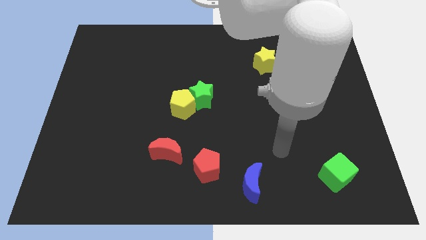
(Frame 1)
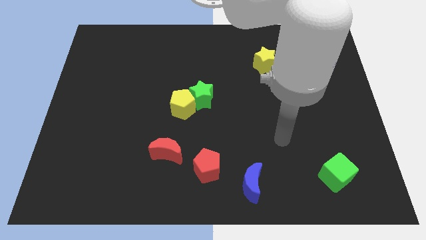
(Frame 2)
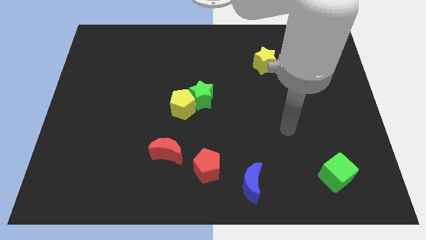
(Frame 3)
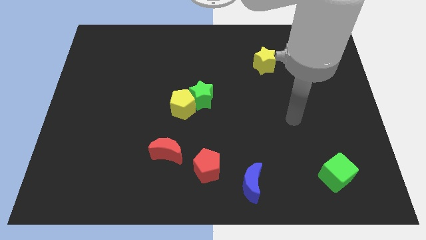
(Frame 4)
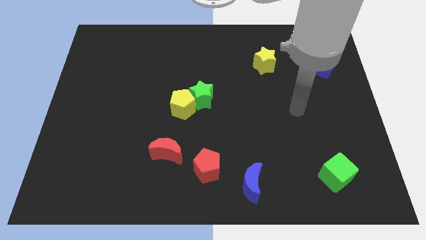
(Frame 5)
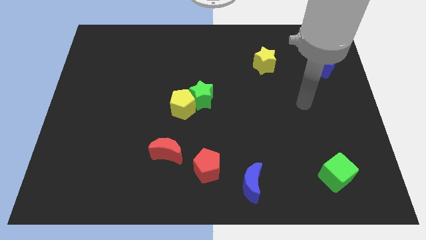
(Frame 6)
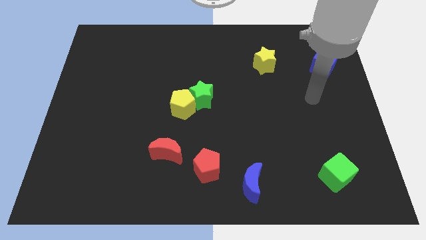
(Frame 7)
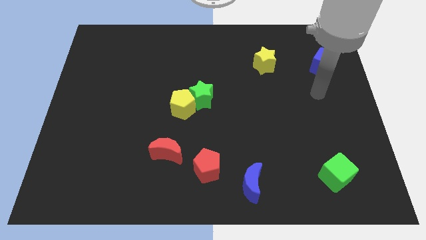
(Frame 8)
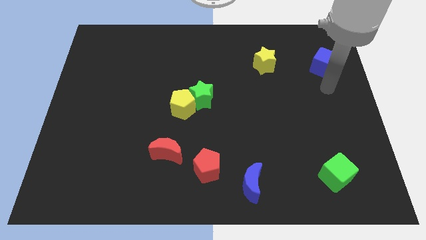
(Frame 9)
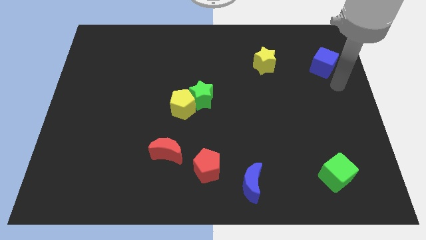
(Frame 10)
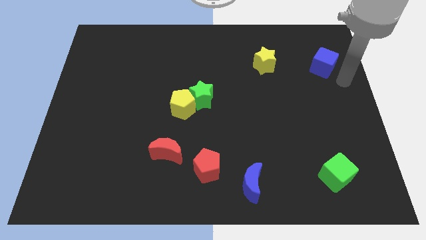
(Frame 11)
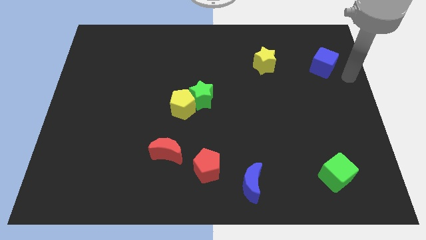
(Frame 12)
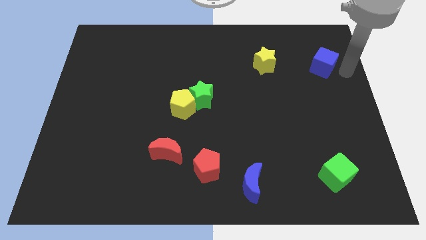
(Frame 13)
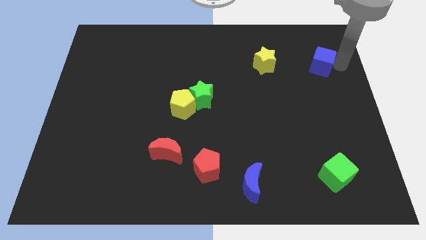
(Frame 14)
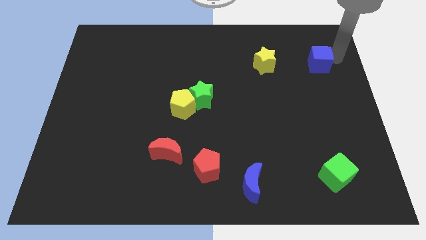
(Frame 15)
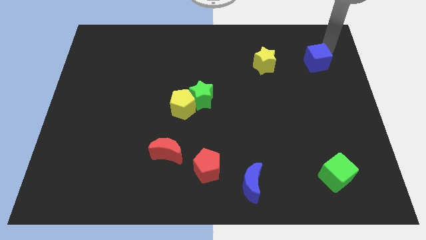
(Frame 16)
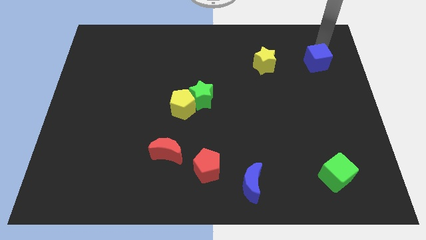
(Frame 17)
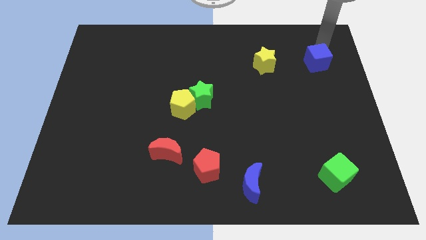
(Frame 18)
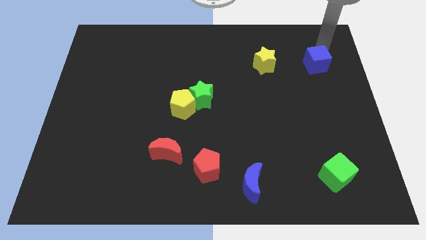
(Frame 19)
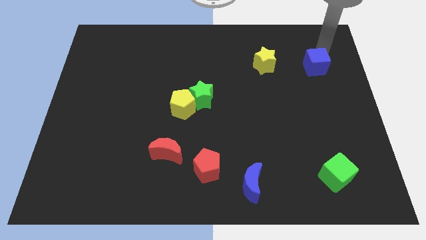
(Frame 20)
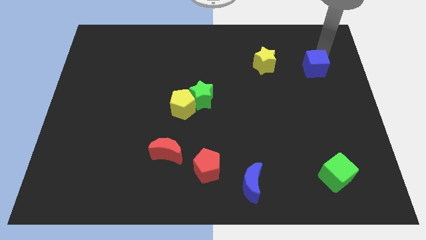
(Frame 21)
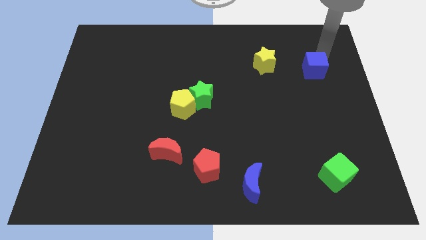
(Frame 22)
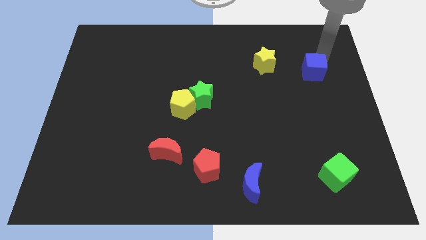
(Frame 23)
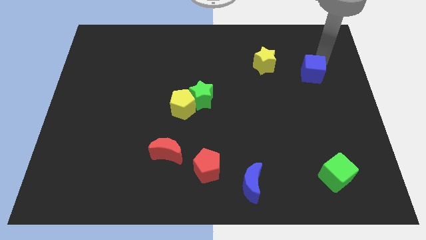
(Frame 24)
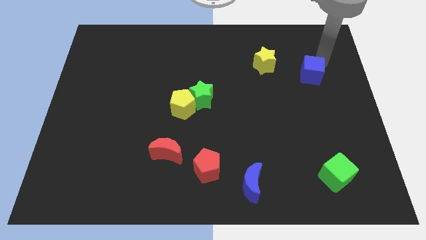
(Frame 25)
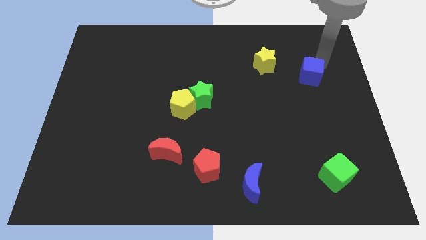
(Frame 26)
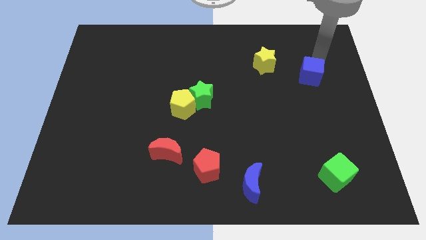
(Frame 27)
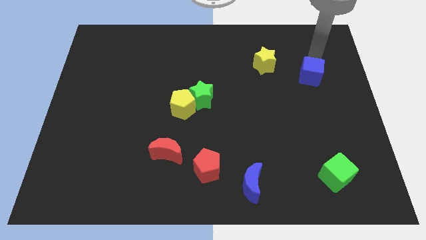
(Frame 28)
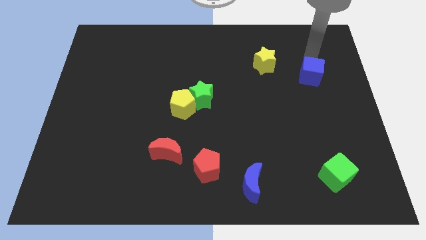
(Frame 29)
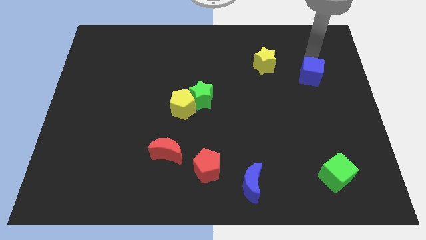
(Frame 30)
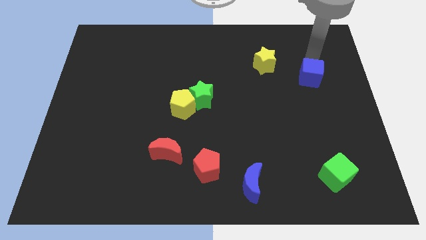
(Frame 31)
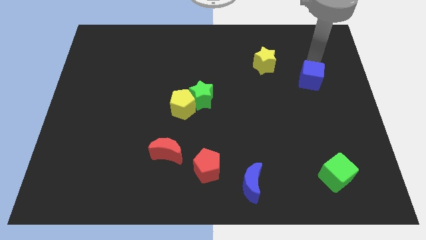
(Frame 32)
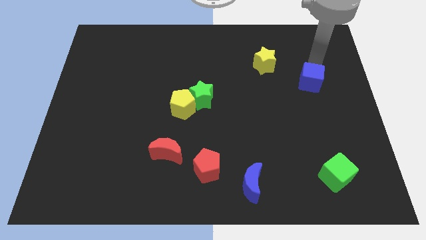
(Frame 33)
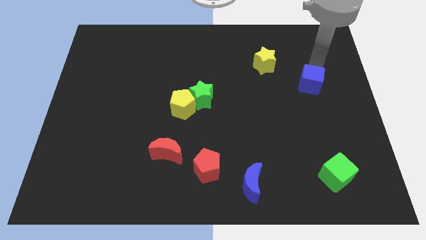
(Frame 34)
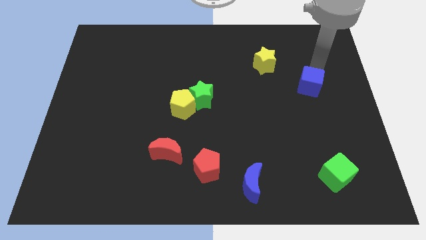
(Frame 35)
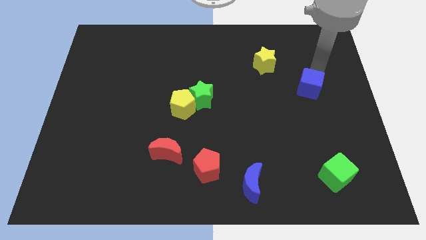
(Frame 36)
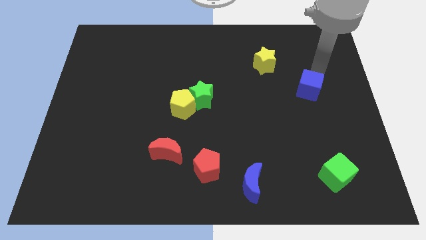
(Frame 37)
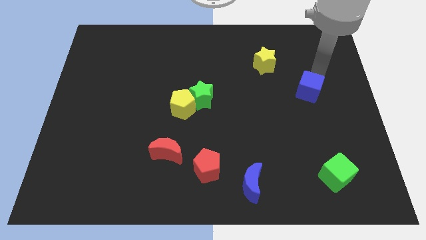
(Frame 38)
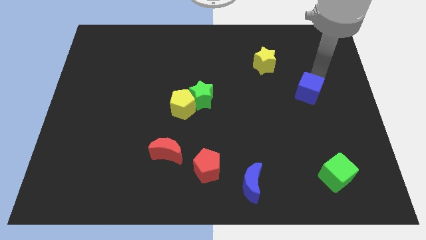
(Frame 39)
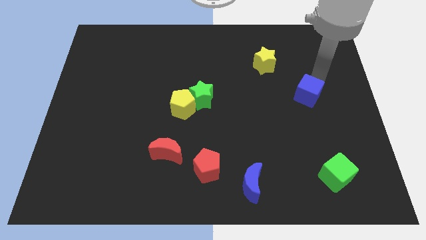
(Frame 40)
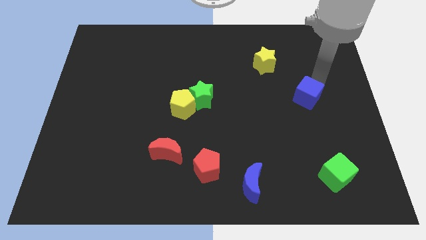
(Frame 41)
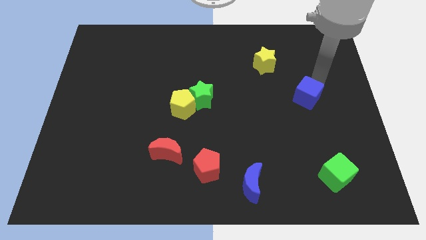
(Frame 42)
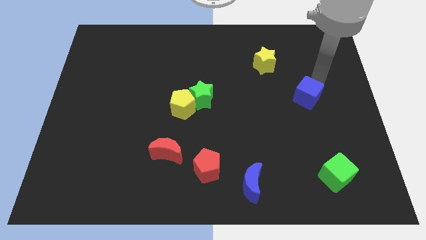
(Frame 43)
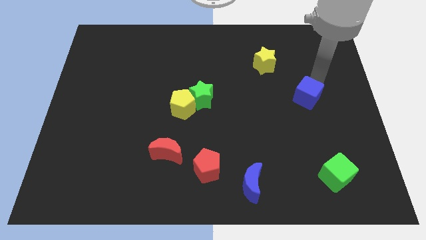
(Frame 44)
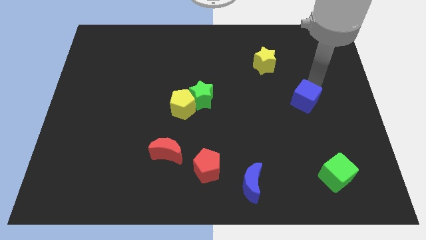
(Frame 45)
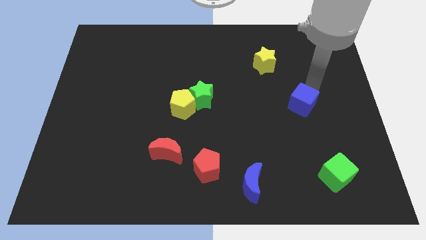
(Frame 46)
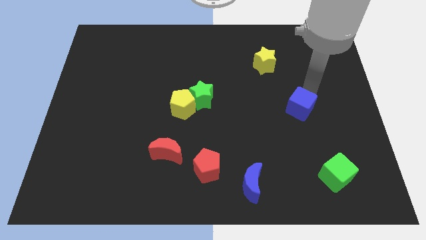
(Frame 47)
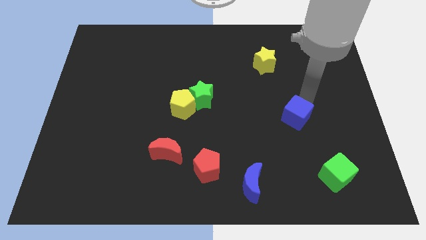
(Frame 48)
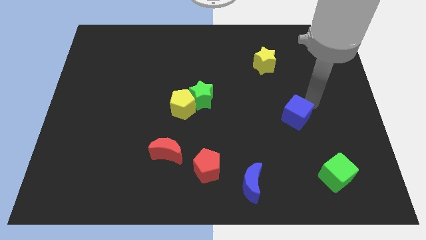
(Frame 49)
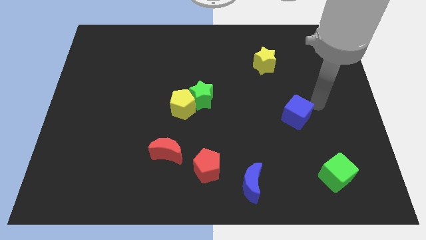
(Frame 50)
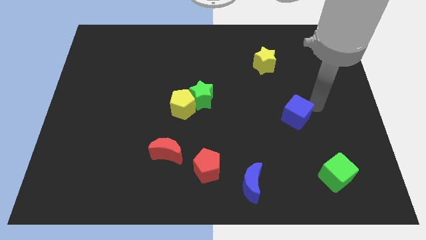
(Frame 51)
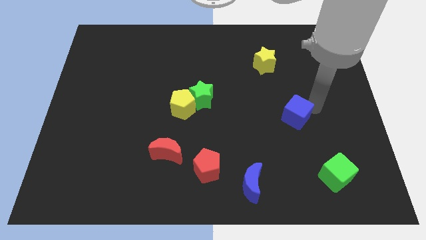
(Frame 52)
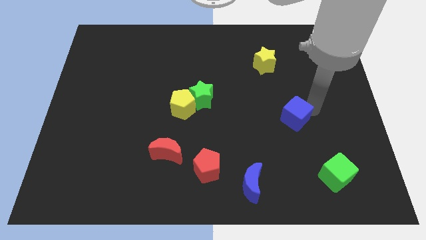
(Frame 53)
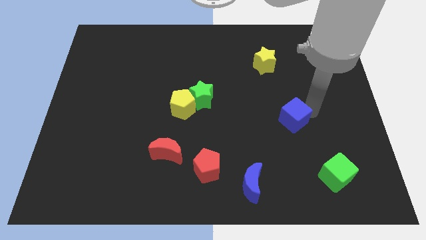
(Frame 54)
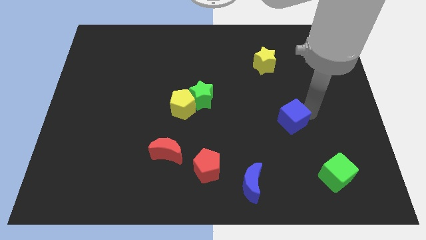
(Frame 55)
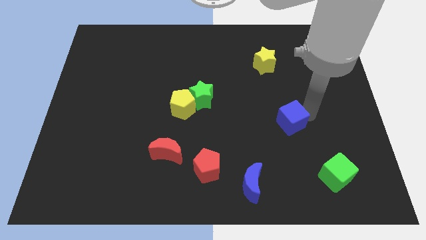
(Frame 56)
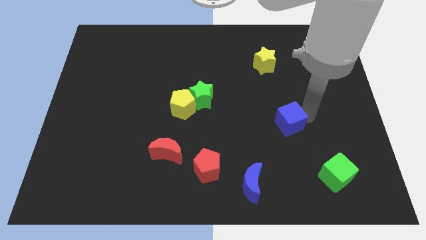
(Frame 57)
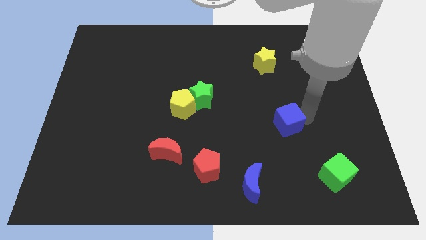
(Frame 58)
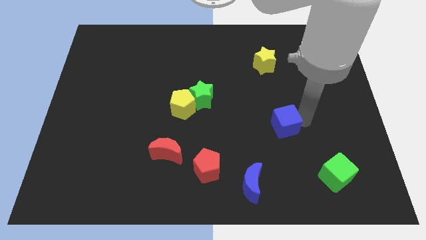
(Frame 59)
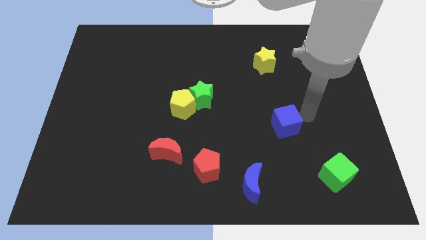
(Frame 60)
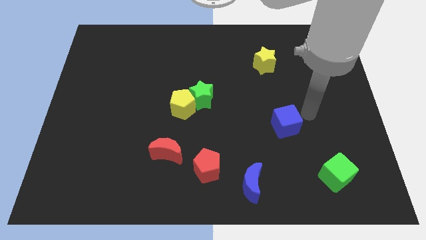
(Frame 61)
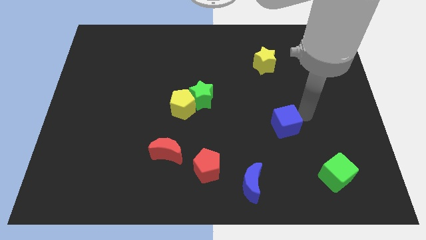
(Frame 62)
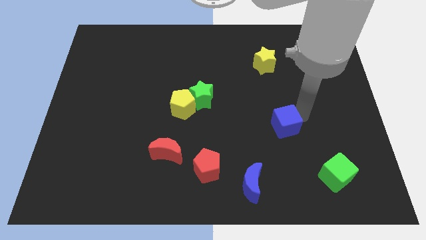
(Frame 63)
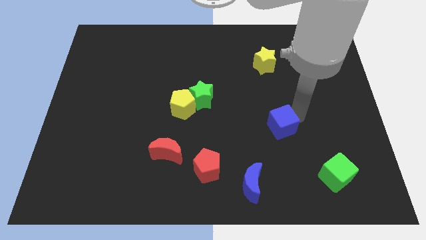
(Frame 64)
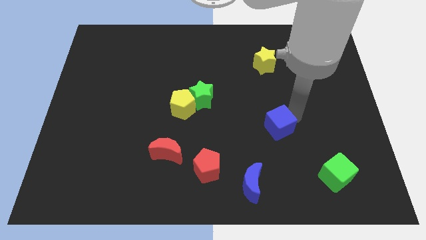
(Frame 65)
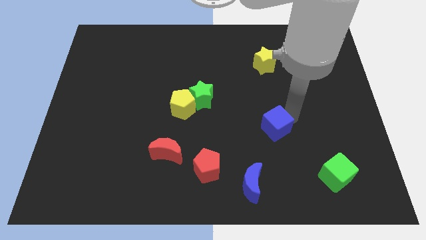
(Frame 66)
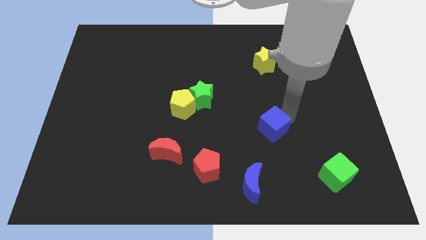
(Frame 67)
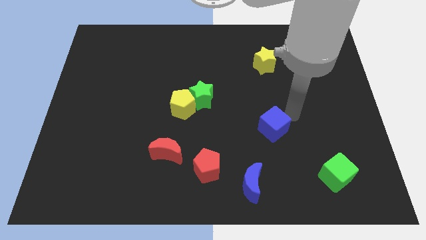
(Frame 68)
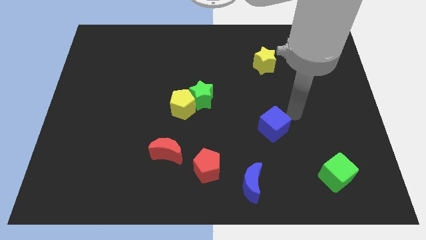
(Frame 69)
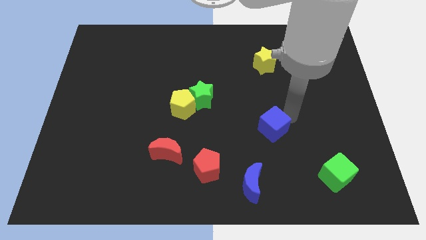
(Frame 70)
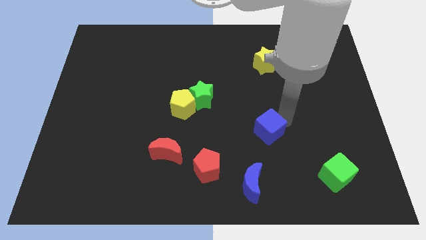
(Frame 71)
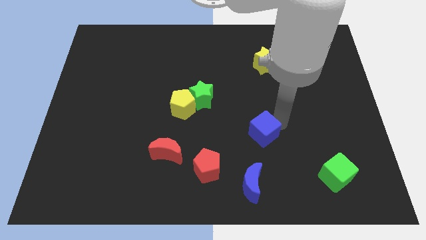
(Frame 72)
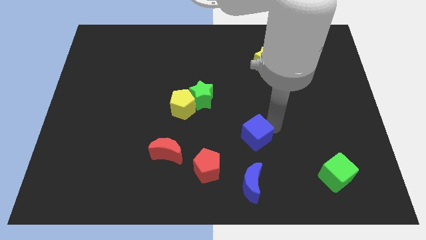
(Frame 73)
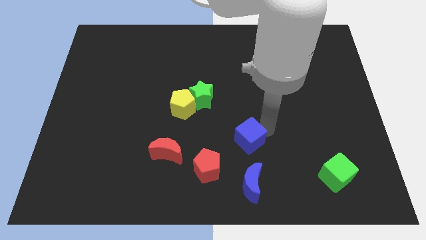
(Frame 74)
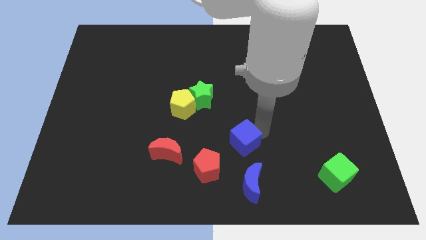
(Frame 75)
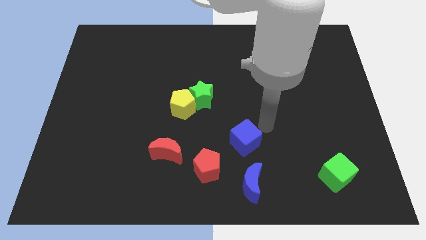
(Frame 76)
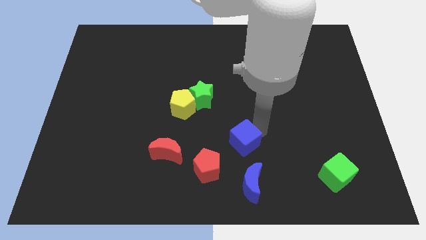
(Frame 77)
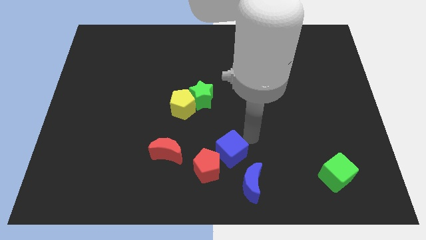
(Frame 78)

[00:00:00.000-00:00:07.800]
move the blue cube towards the red pentagon

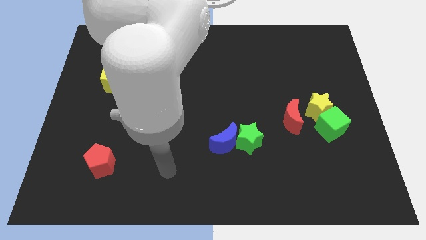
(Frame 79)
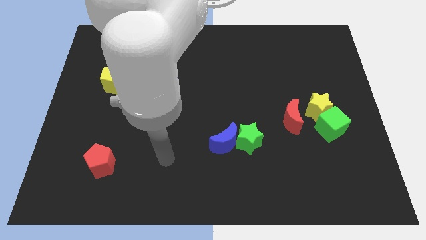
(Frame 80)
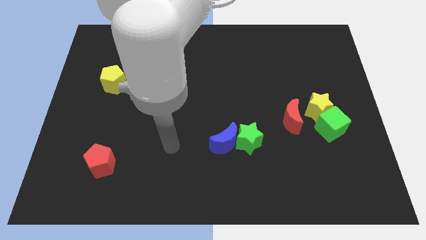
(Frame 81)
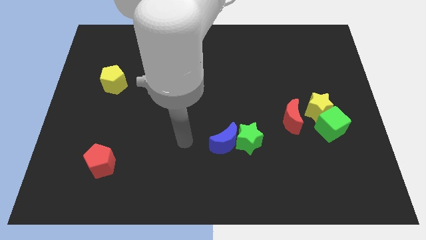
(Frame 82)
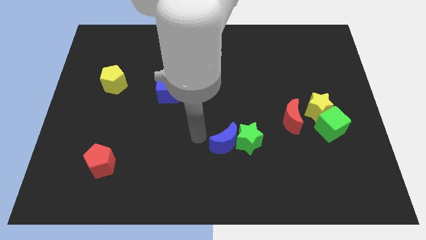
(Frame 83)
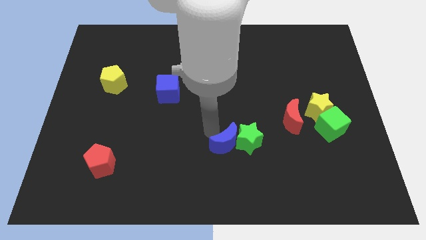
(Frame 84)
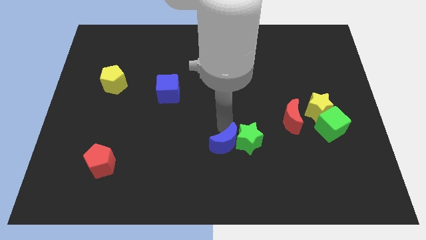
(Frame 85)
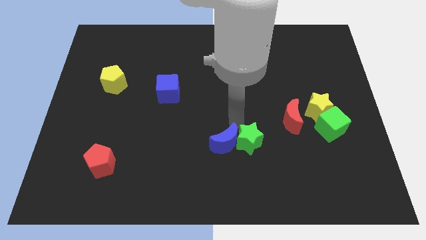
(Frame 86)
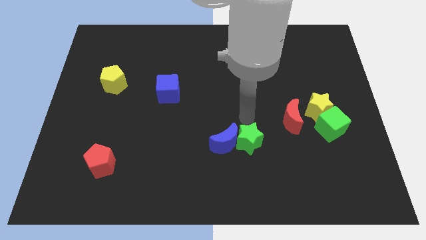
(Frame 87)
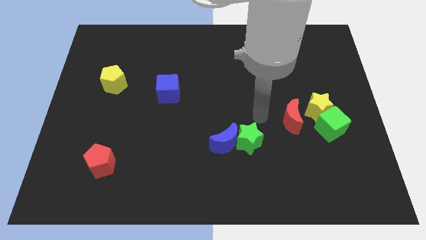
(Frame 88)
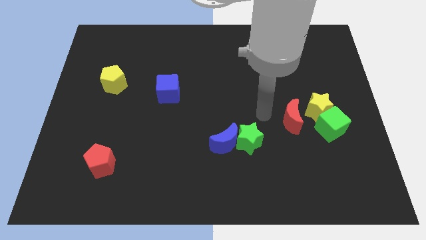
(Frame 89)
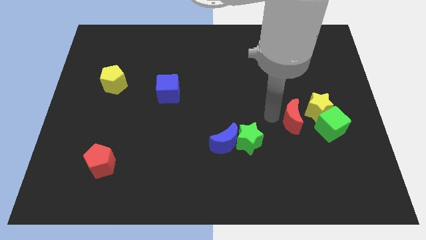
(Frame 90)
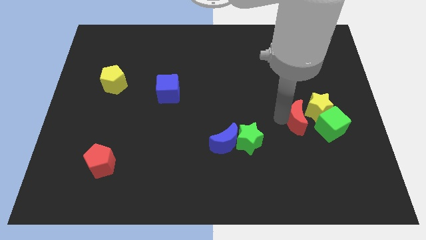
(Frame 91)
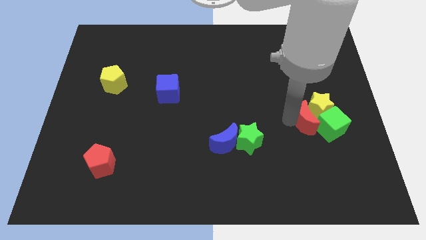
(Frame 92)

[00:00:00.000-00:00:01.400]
slide the red moon to the green cube
